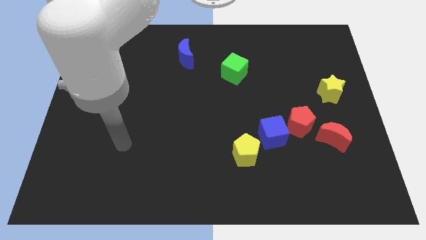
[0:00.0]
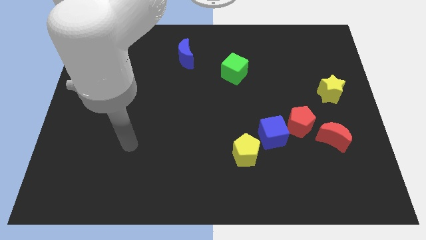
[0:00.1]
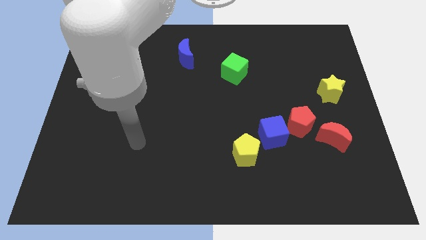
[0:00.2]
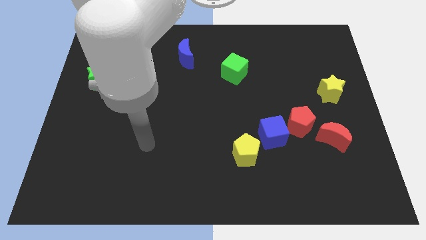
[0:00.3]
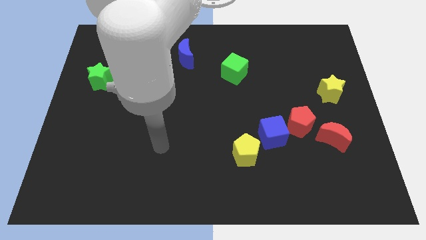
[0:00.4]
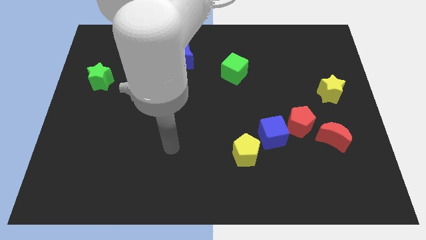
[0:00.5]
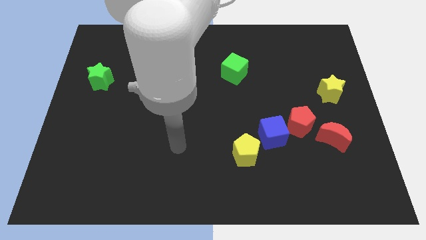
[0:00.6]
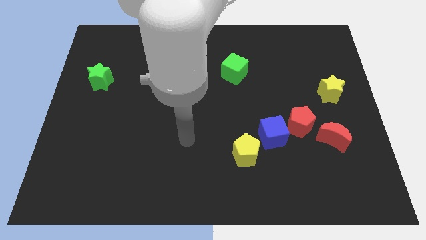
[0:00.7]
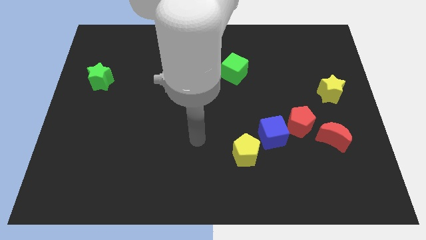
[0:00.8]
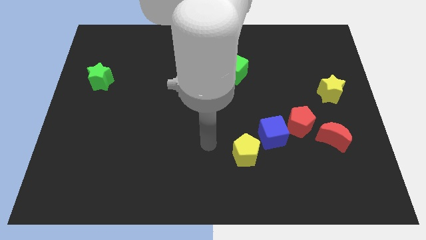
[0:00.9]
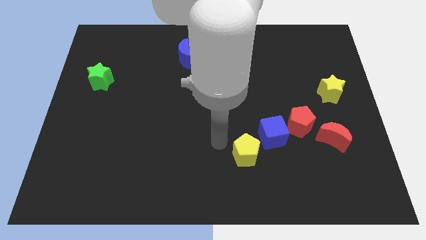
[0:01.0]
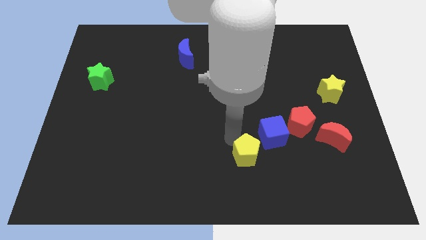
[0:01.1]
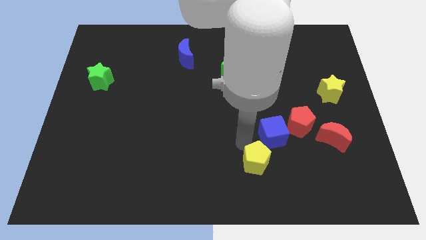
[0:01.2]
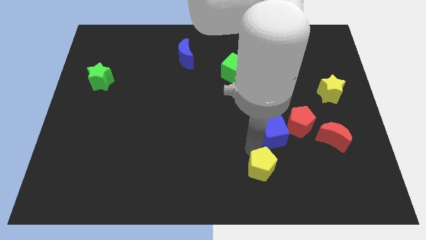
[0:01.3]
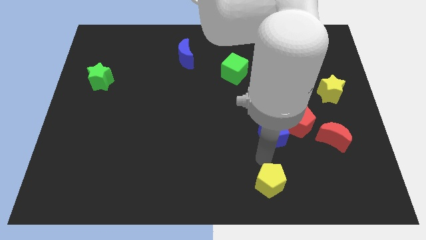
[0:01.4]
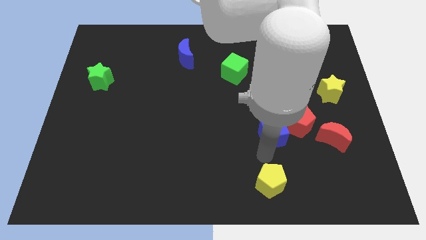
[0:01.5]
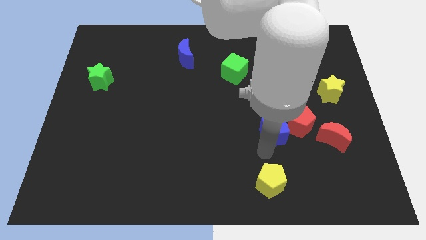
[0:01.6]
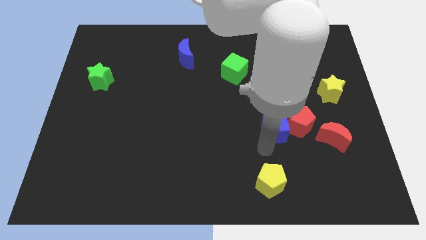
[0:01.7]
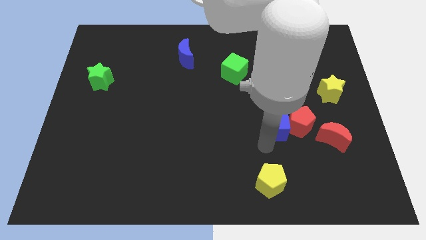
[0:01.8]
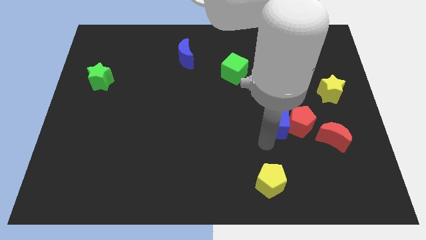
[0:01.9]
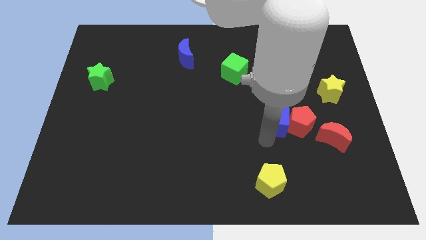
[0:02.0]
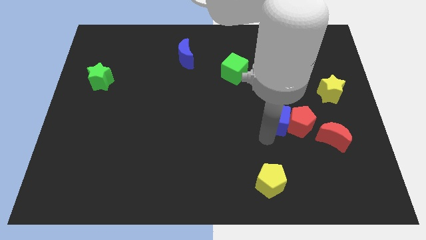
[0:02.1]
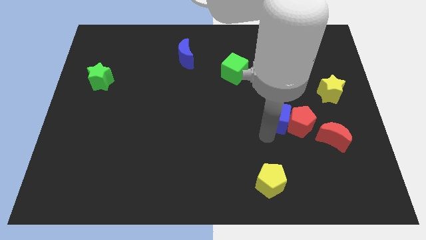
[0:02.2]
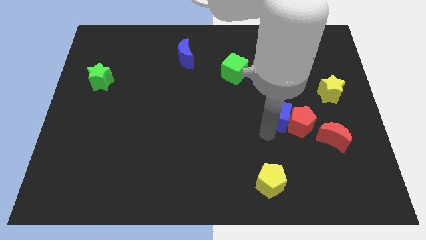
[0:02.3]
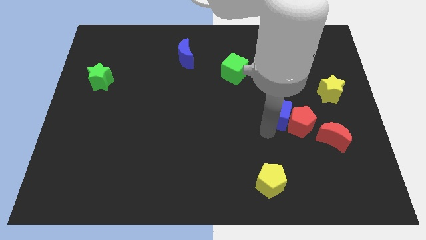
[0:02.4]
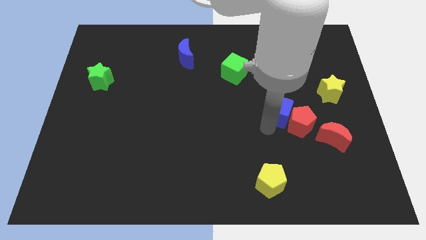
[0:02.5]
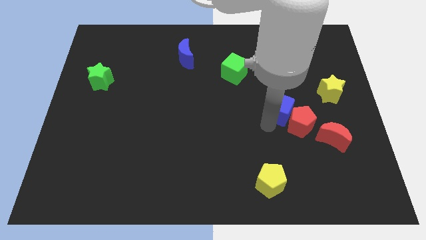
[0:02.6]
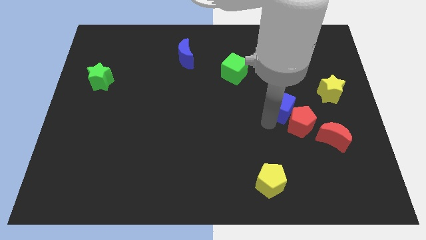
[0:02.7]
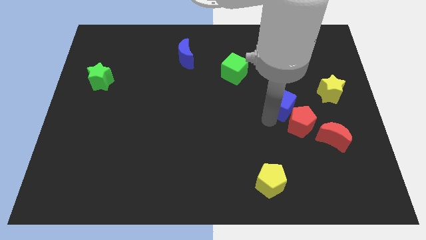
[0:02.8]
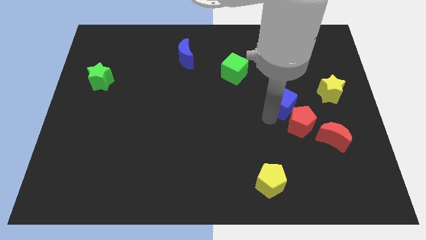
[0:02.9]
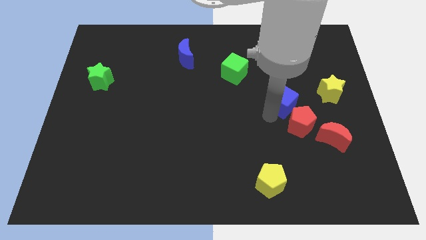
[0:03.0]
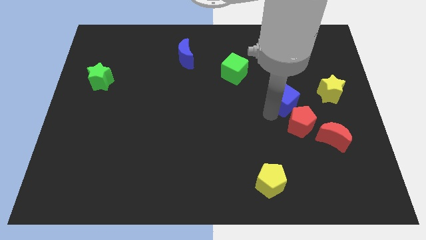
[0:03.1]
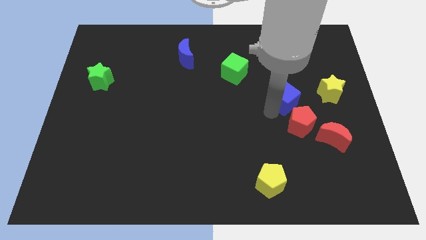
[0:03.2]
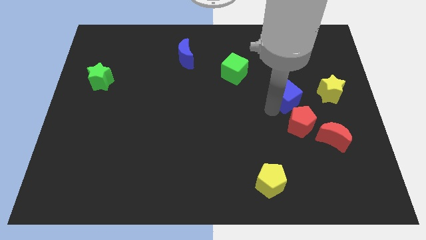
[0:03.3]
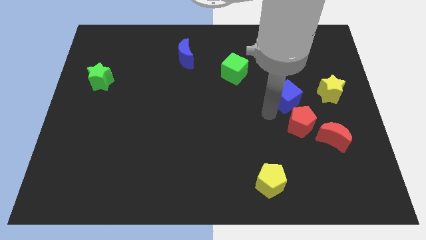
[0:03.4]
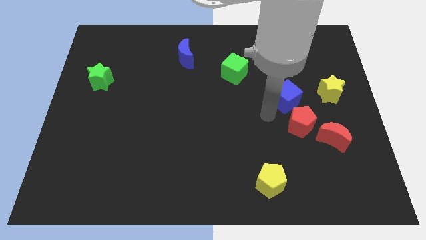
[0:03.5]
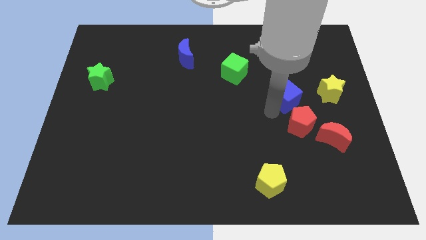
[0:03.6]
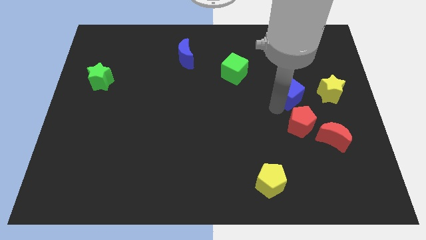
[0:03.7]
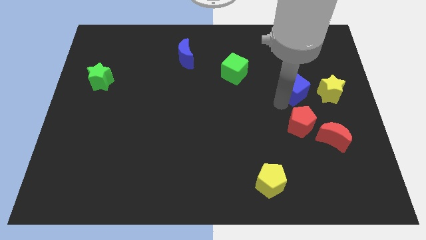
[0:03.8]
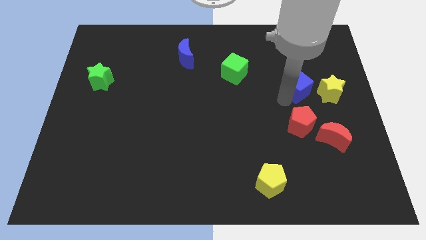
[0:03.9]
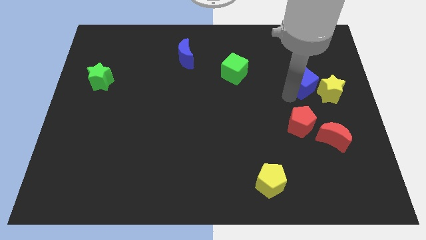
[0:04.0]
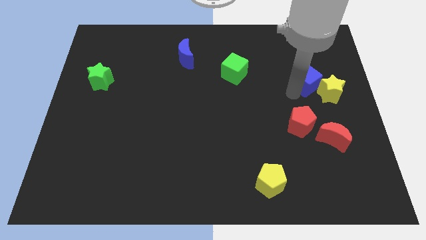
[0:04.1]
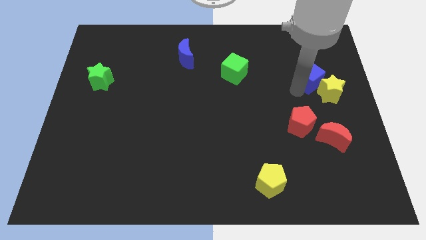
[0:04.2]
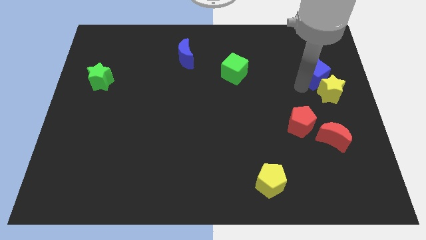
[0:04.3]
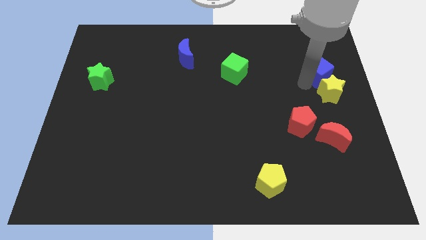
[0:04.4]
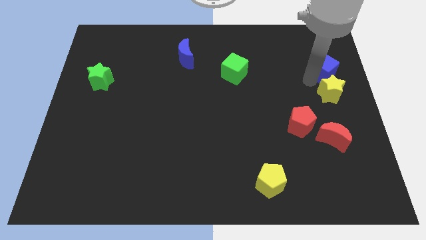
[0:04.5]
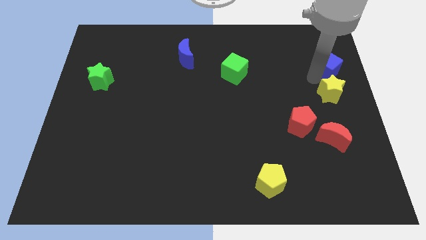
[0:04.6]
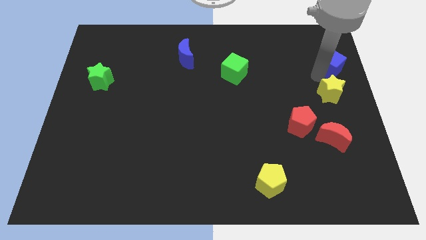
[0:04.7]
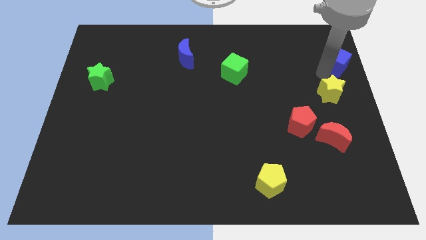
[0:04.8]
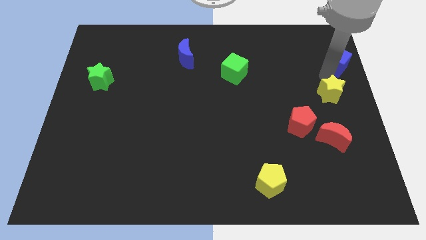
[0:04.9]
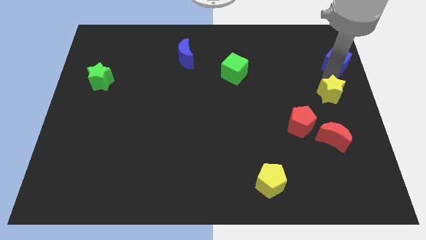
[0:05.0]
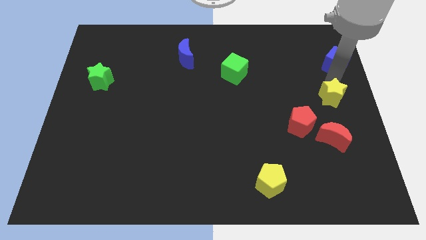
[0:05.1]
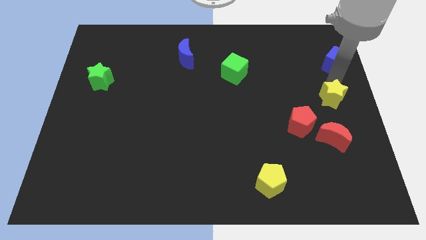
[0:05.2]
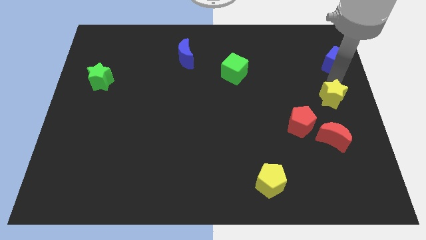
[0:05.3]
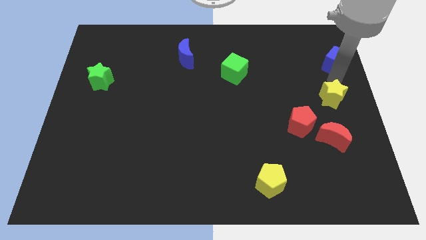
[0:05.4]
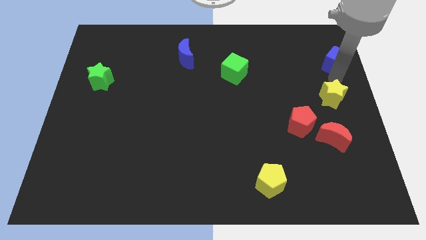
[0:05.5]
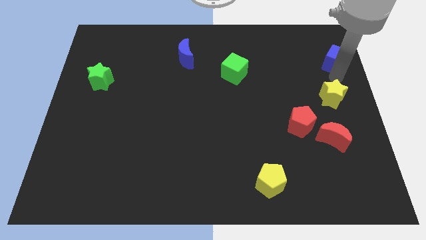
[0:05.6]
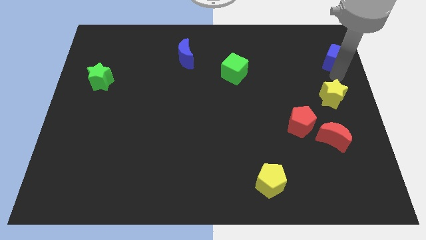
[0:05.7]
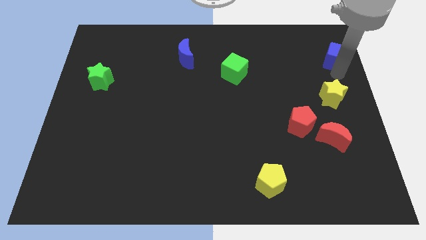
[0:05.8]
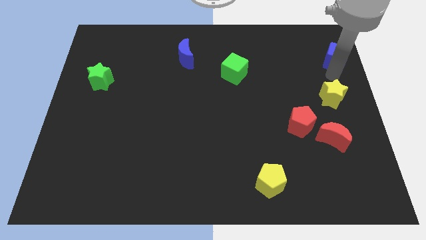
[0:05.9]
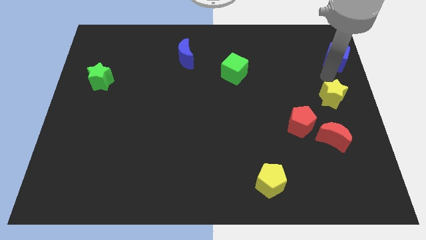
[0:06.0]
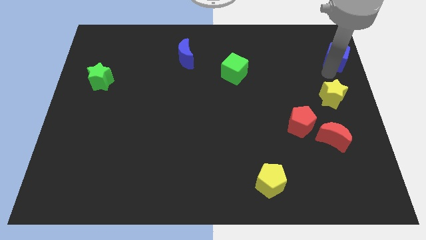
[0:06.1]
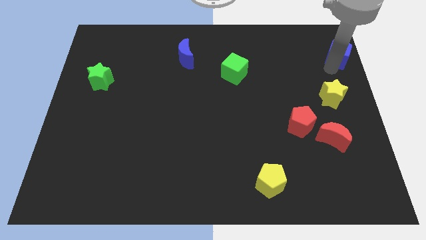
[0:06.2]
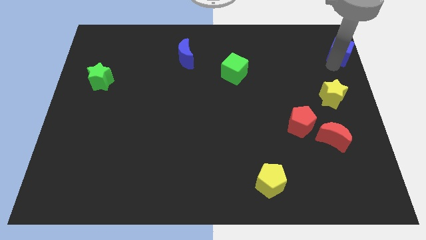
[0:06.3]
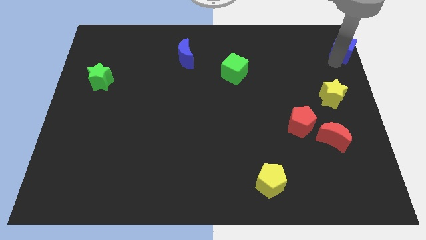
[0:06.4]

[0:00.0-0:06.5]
move the blue cube to the top right of the board
